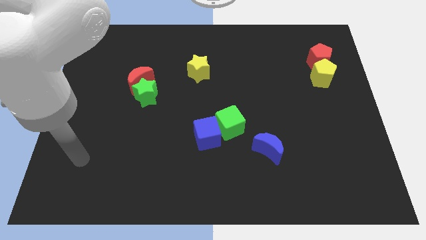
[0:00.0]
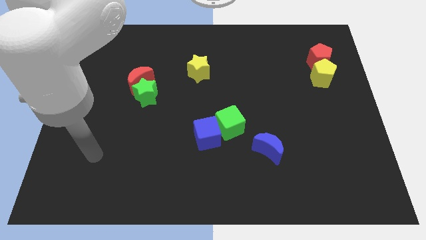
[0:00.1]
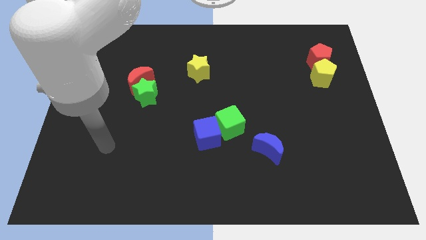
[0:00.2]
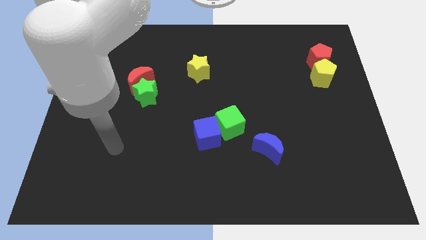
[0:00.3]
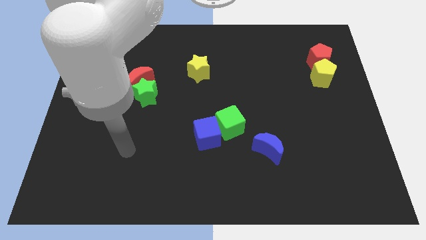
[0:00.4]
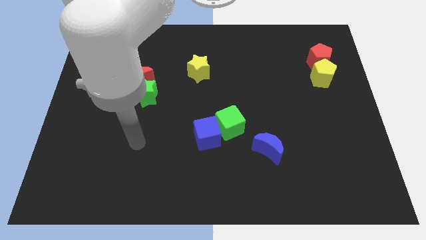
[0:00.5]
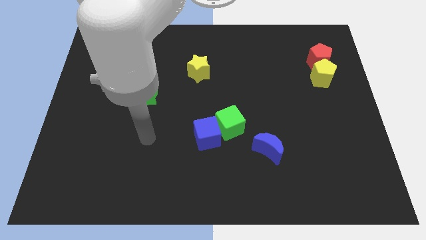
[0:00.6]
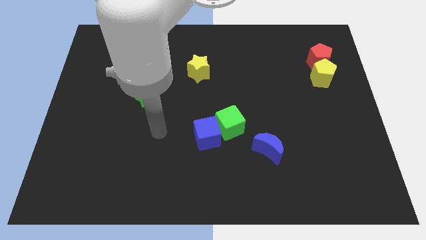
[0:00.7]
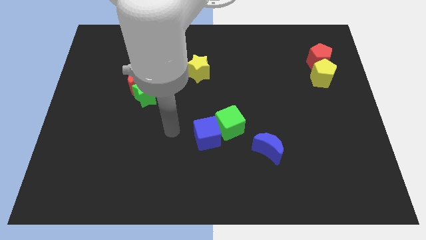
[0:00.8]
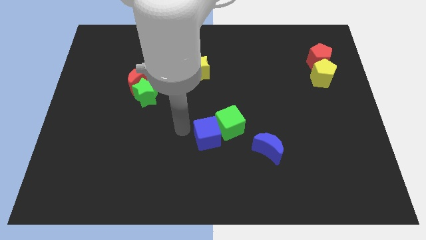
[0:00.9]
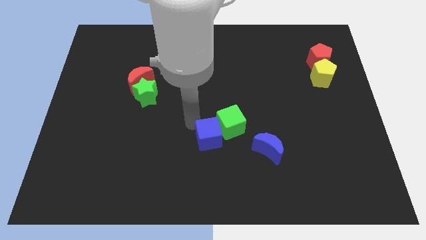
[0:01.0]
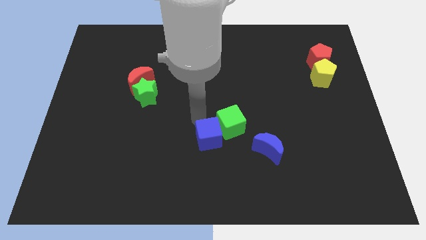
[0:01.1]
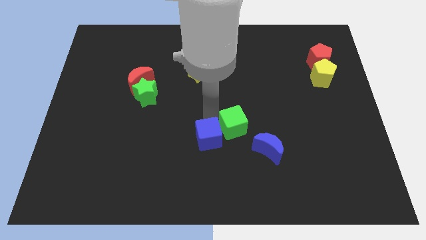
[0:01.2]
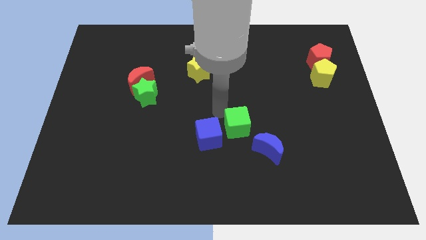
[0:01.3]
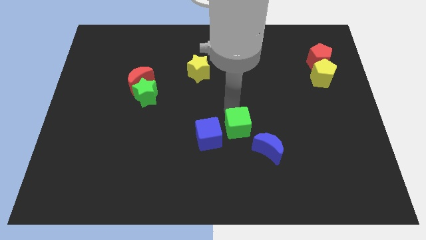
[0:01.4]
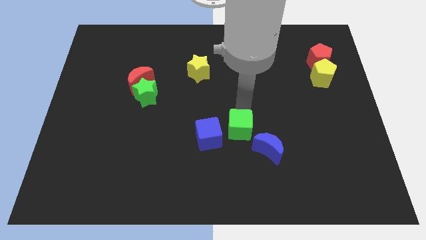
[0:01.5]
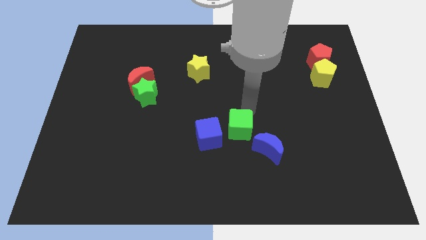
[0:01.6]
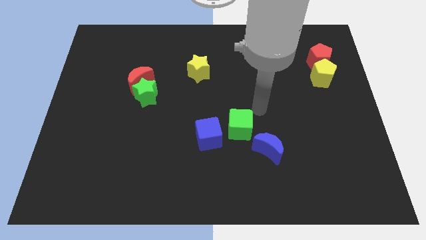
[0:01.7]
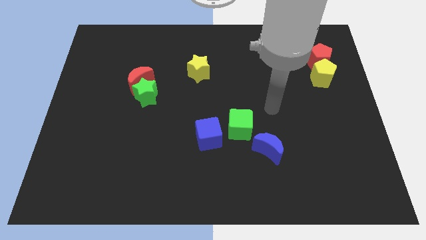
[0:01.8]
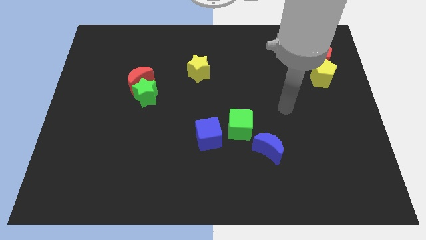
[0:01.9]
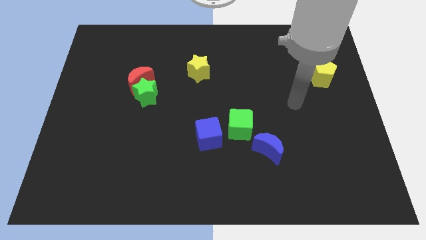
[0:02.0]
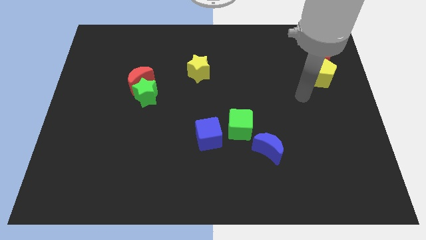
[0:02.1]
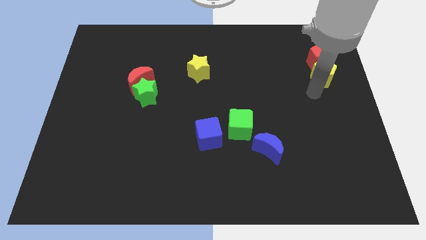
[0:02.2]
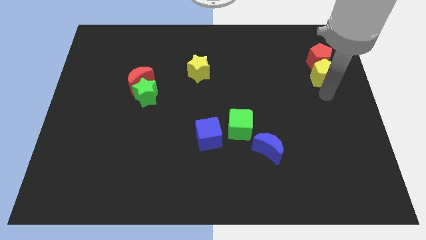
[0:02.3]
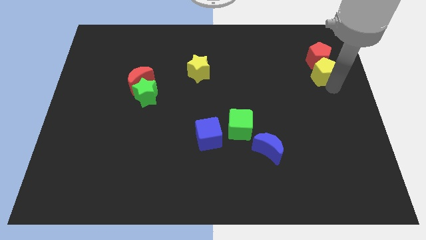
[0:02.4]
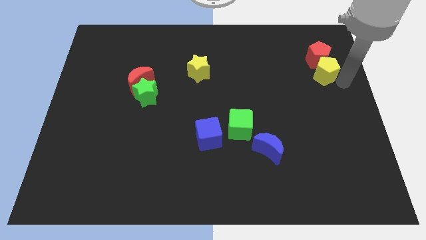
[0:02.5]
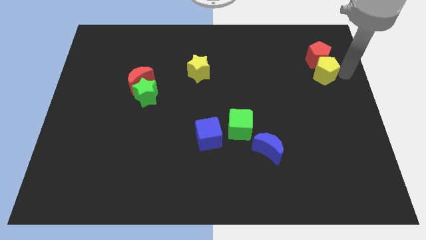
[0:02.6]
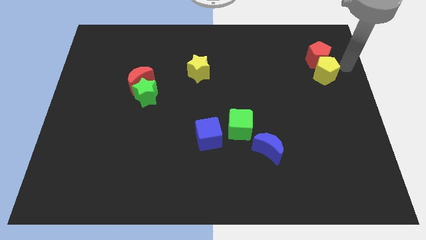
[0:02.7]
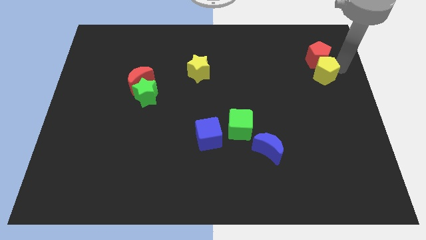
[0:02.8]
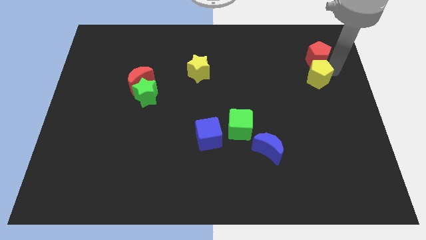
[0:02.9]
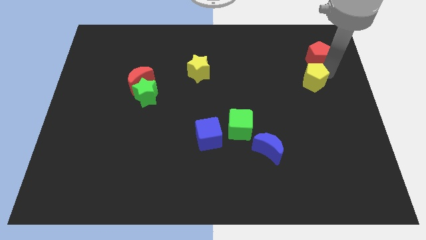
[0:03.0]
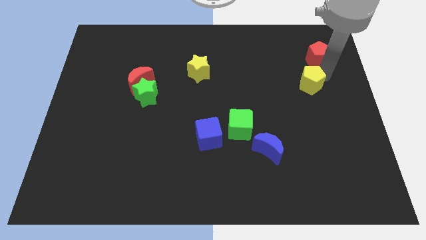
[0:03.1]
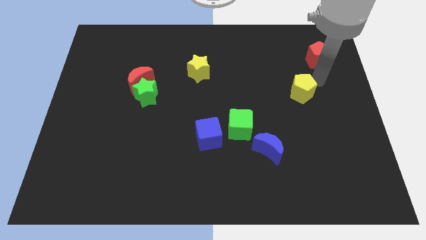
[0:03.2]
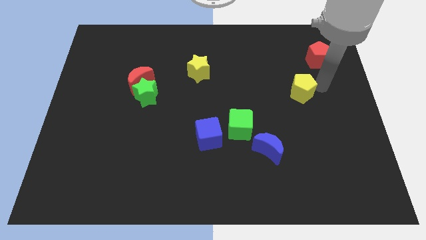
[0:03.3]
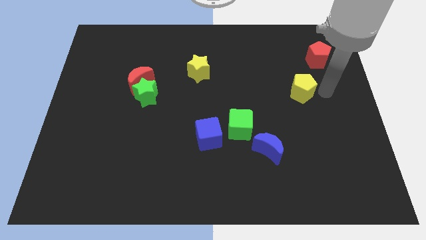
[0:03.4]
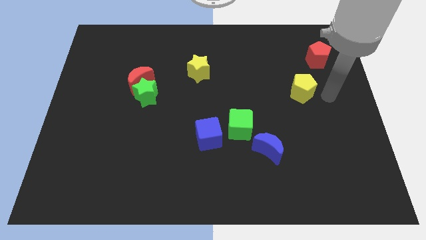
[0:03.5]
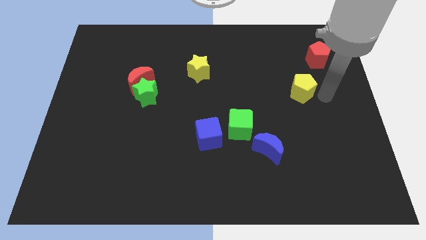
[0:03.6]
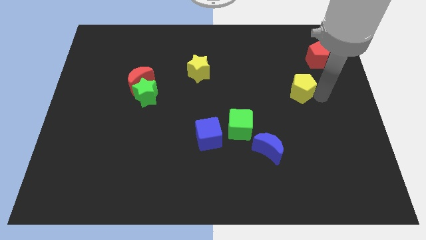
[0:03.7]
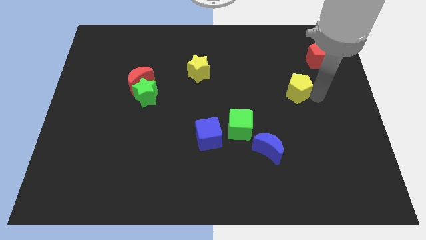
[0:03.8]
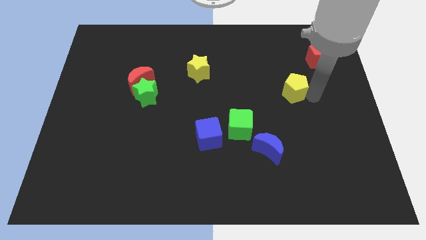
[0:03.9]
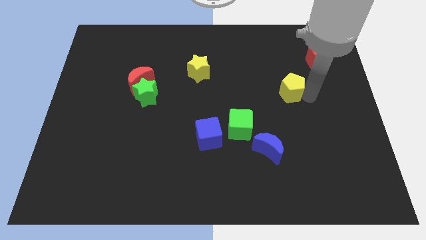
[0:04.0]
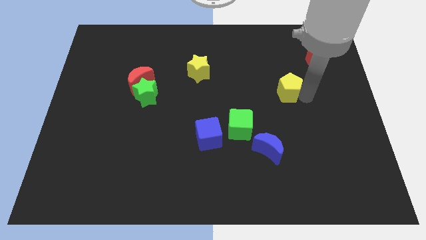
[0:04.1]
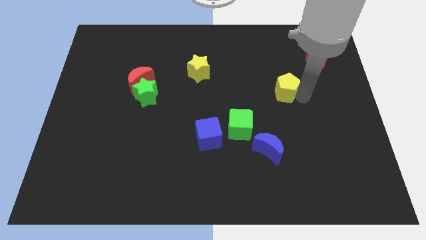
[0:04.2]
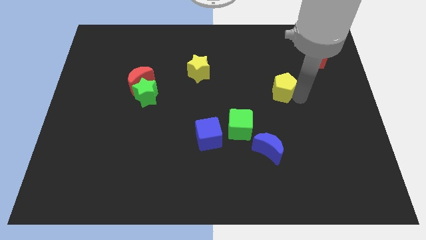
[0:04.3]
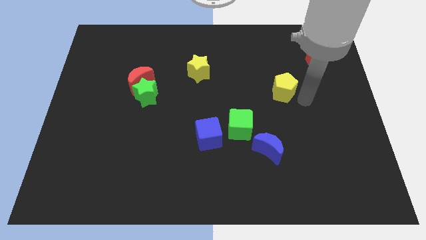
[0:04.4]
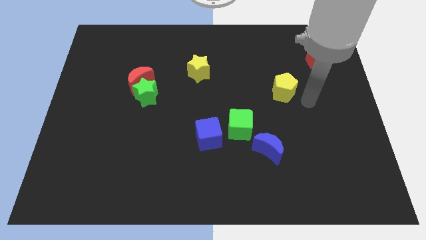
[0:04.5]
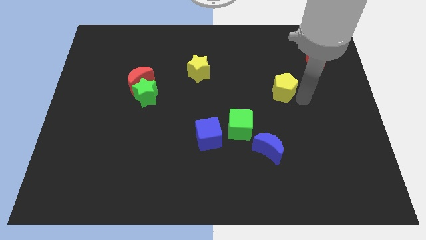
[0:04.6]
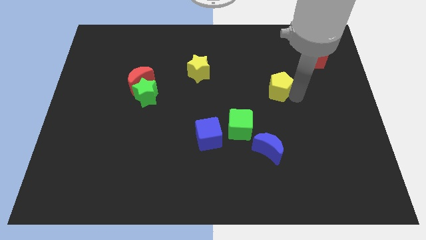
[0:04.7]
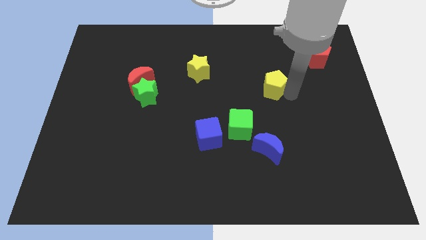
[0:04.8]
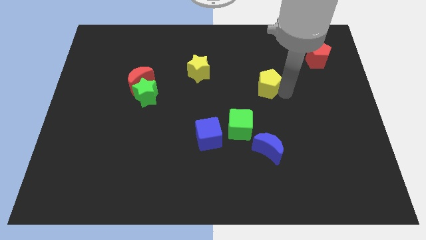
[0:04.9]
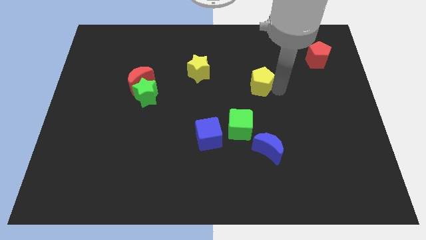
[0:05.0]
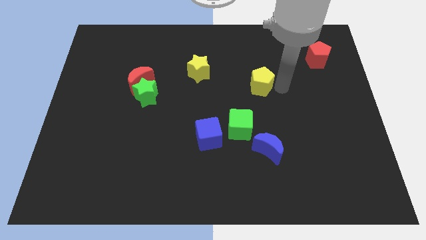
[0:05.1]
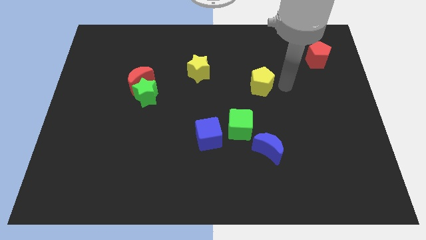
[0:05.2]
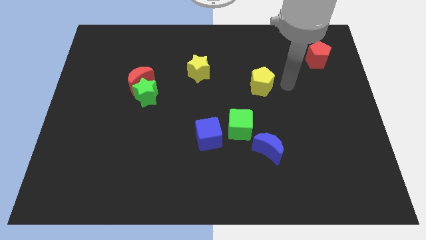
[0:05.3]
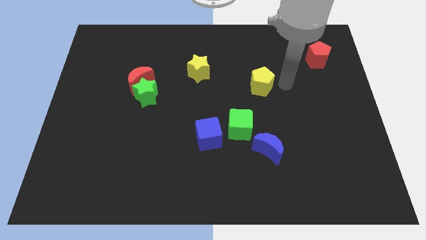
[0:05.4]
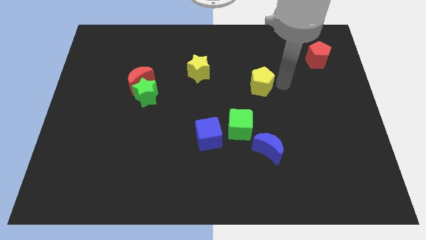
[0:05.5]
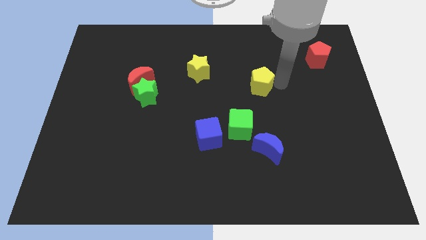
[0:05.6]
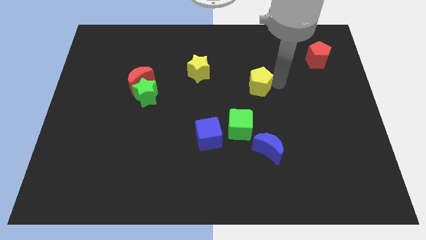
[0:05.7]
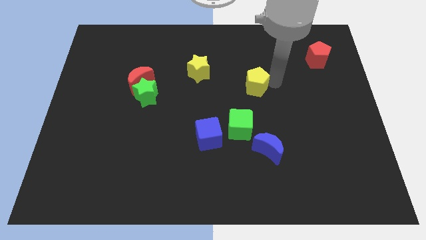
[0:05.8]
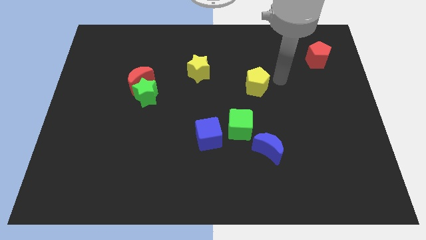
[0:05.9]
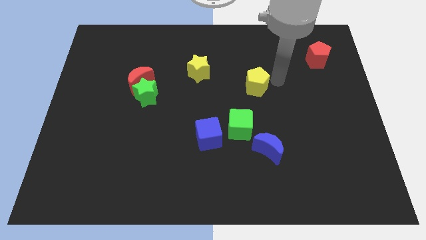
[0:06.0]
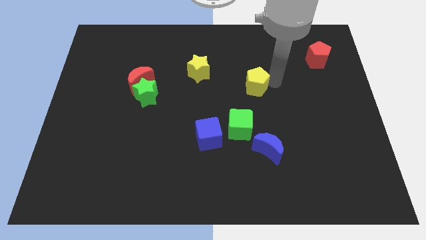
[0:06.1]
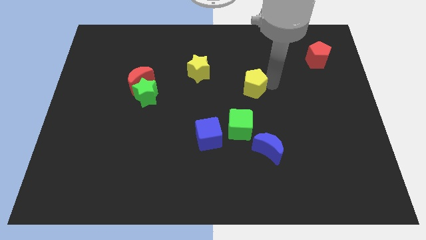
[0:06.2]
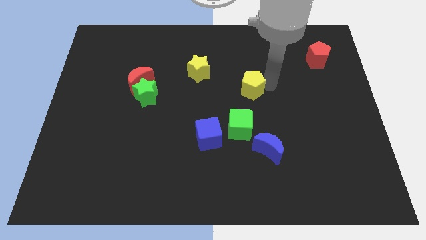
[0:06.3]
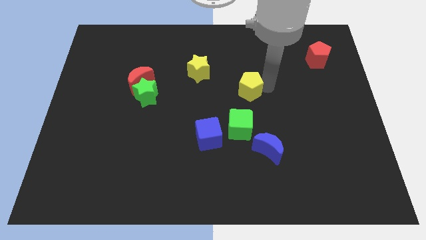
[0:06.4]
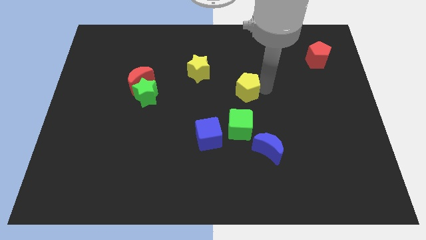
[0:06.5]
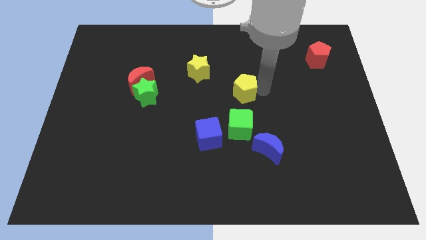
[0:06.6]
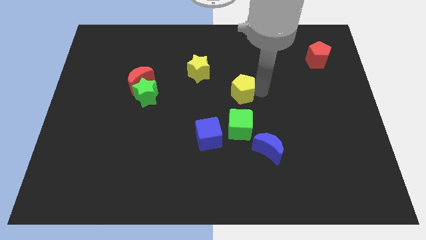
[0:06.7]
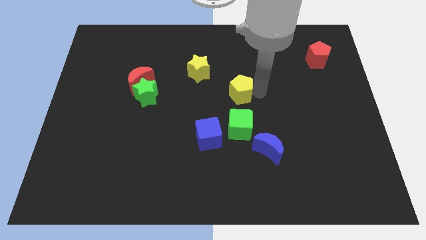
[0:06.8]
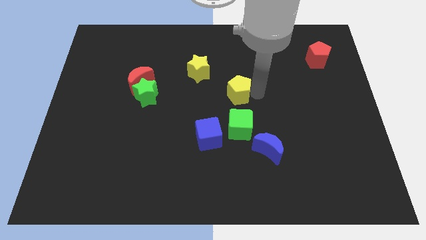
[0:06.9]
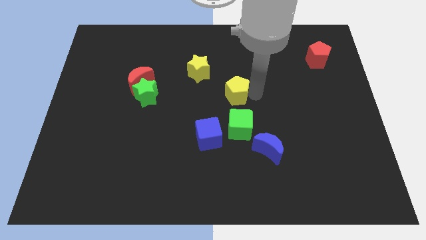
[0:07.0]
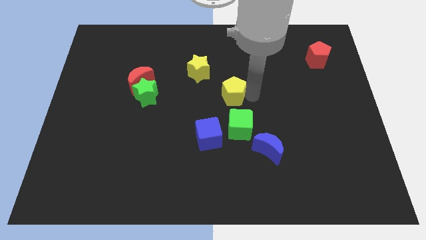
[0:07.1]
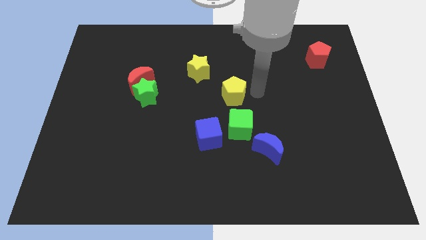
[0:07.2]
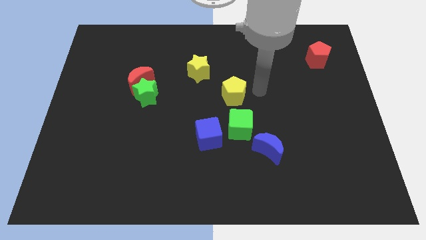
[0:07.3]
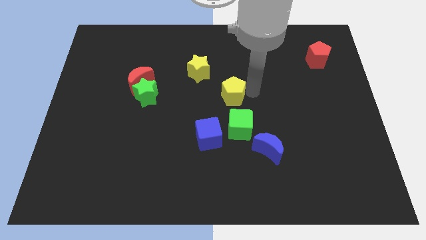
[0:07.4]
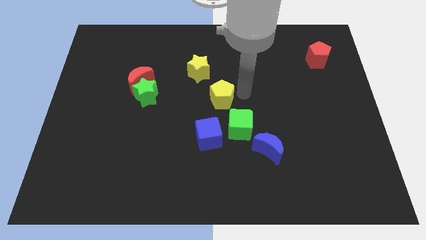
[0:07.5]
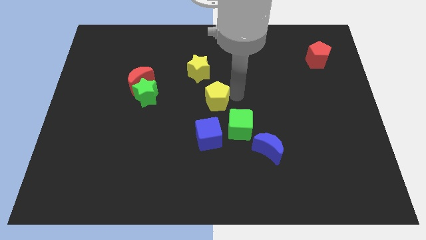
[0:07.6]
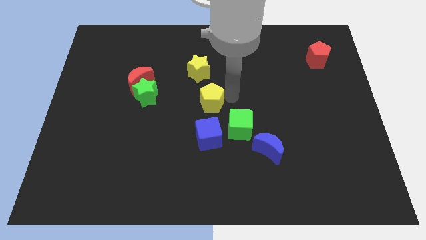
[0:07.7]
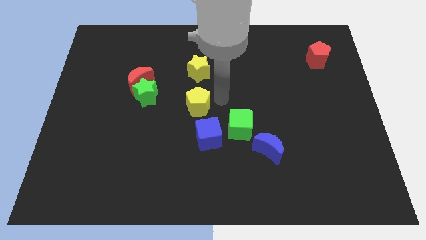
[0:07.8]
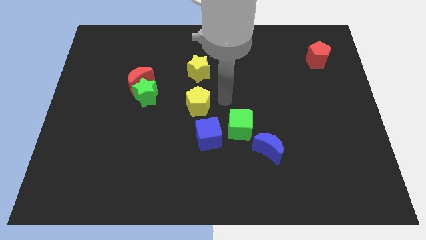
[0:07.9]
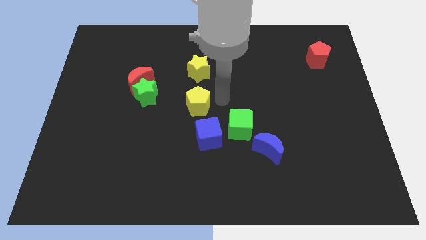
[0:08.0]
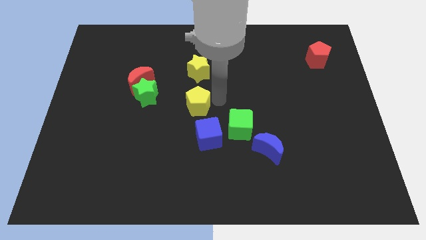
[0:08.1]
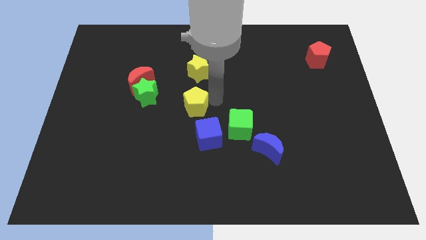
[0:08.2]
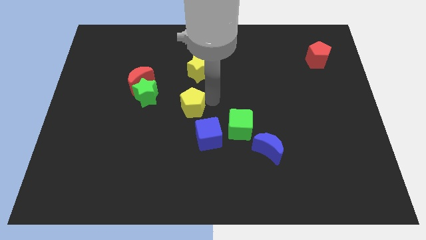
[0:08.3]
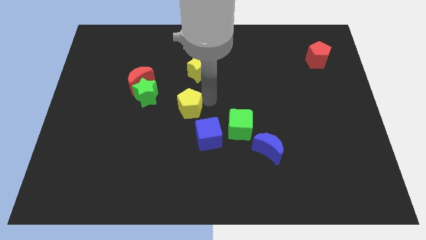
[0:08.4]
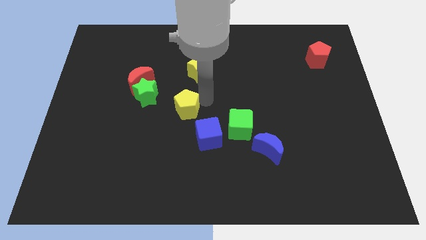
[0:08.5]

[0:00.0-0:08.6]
put the yellow pentagon diagonally down and to the right of the green star
